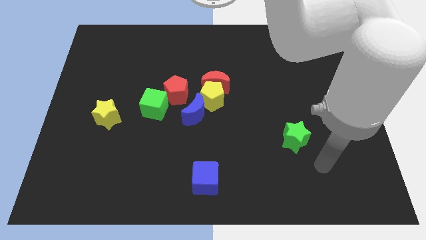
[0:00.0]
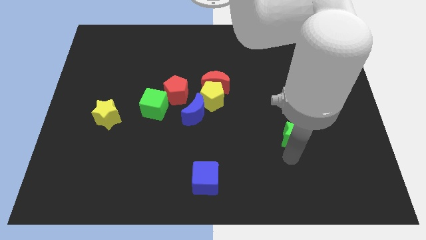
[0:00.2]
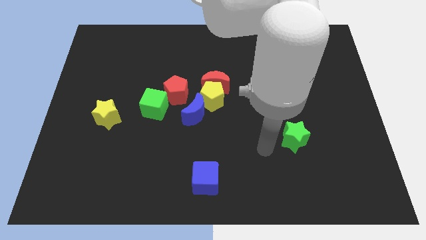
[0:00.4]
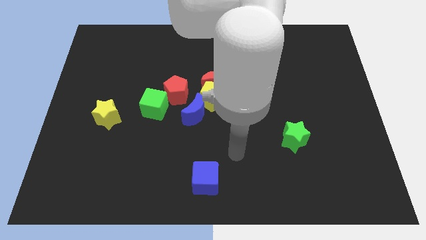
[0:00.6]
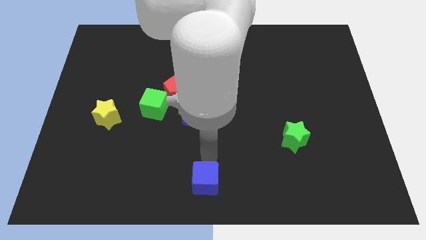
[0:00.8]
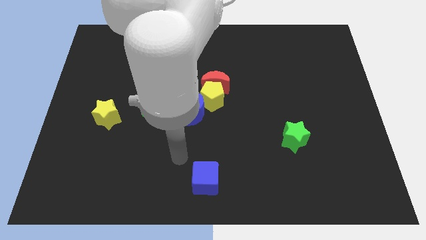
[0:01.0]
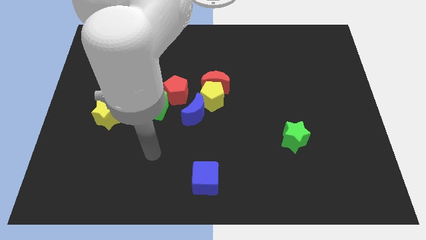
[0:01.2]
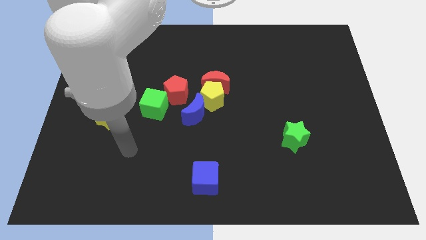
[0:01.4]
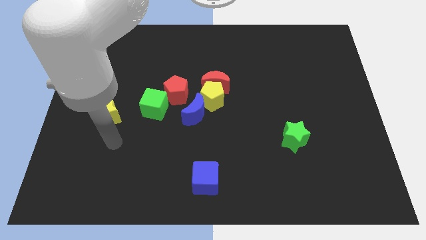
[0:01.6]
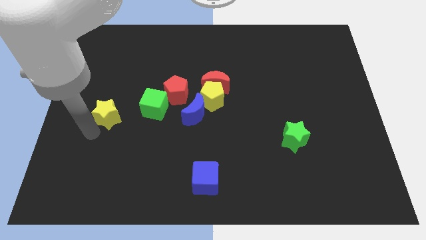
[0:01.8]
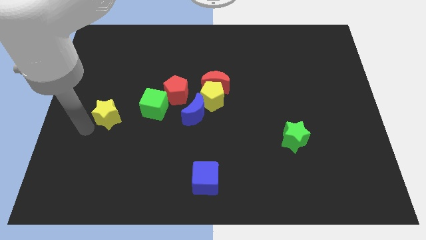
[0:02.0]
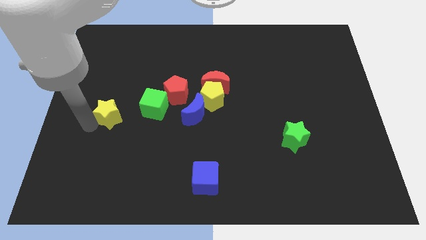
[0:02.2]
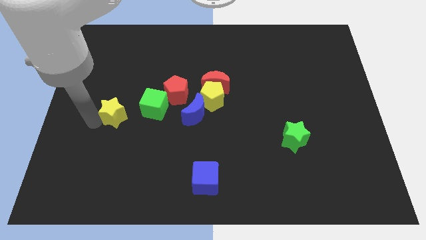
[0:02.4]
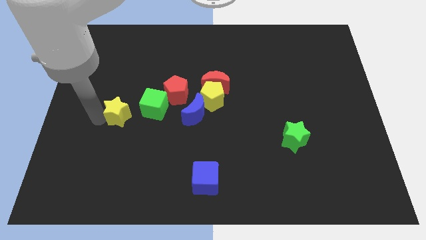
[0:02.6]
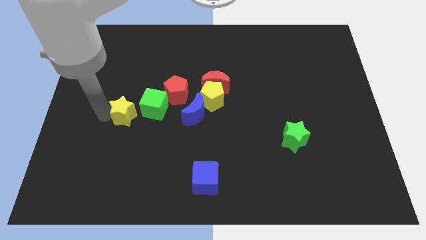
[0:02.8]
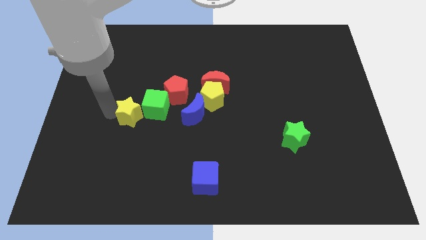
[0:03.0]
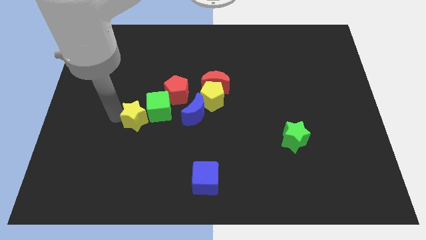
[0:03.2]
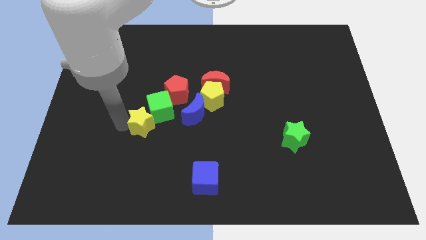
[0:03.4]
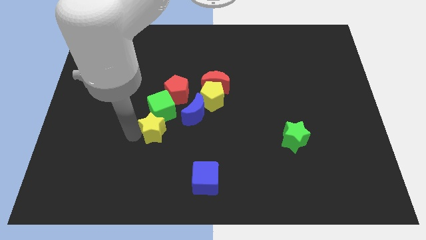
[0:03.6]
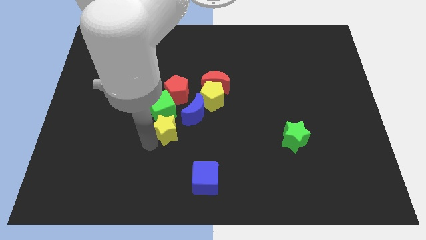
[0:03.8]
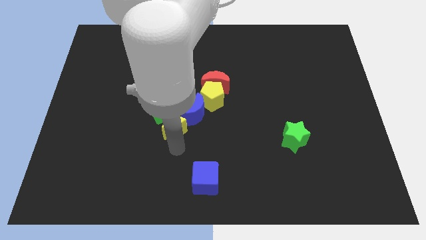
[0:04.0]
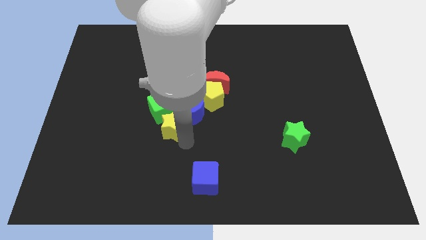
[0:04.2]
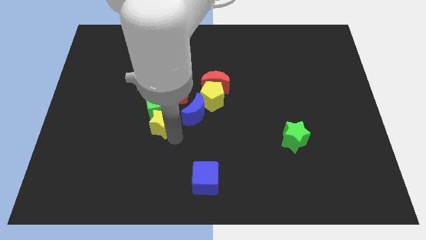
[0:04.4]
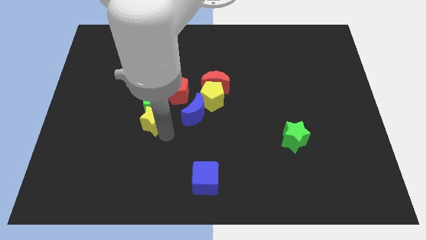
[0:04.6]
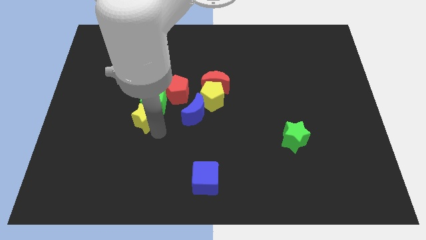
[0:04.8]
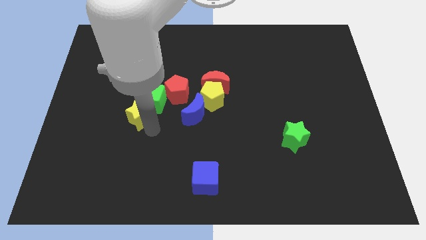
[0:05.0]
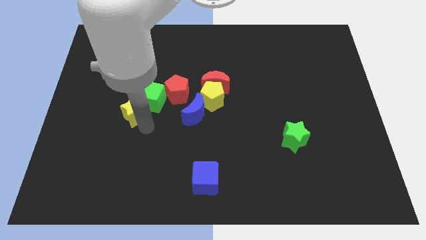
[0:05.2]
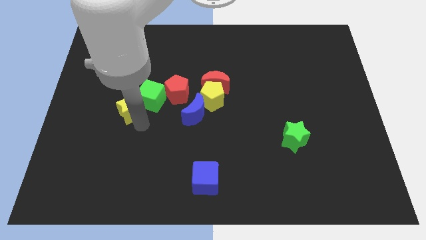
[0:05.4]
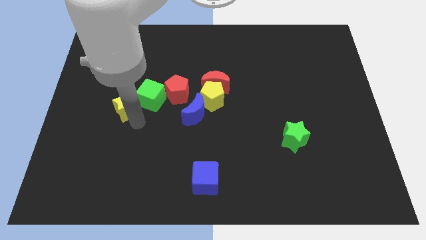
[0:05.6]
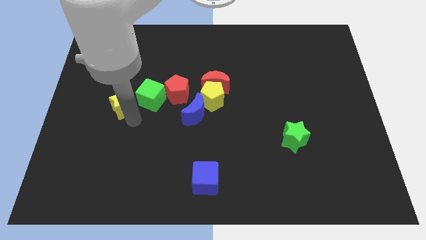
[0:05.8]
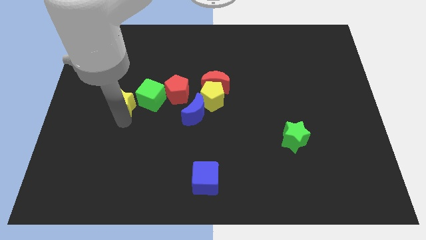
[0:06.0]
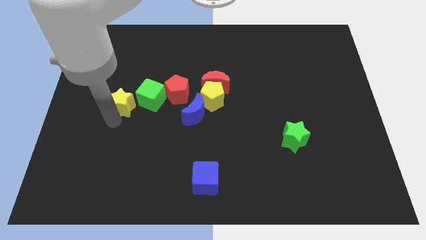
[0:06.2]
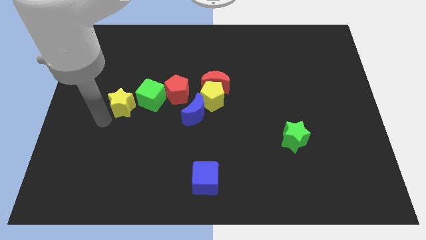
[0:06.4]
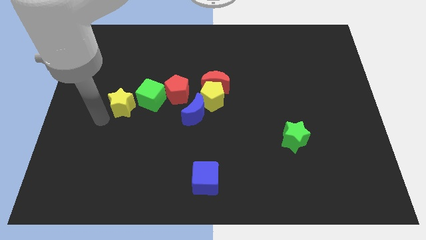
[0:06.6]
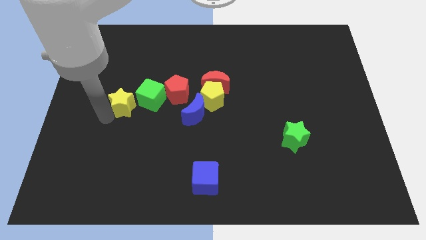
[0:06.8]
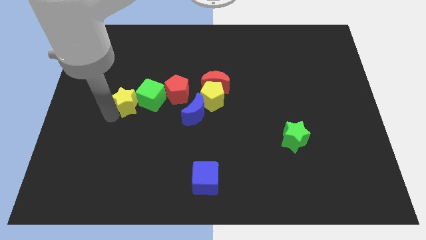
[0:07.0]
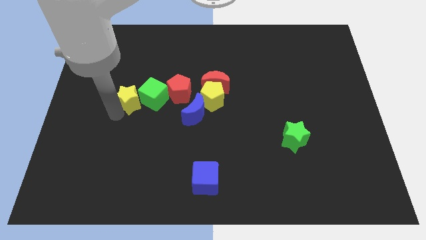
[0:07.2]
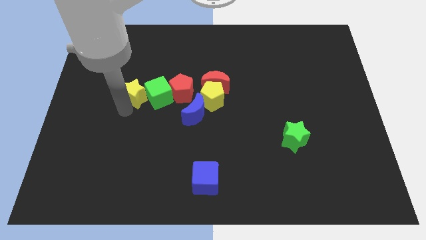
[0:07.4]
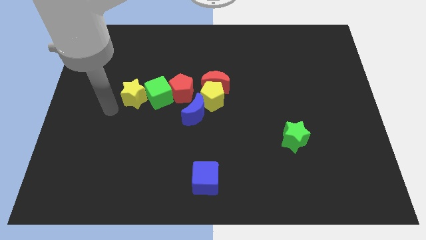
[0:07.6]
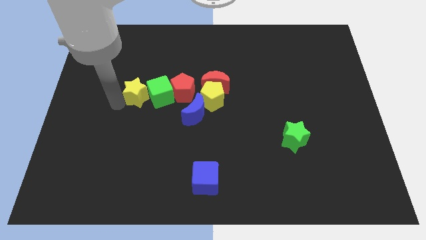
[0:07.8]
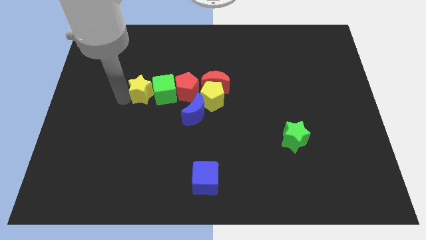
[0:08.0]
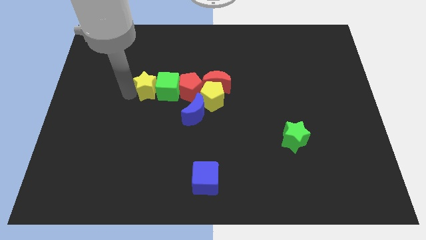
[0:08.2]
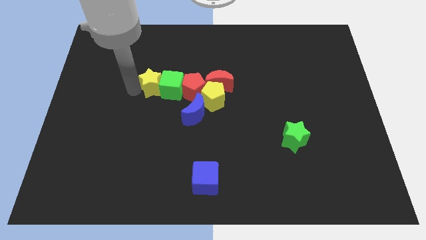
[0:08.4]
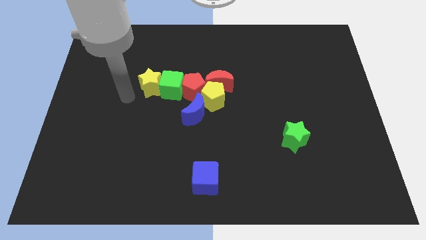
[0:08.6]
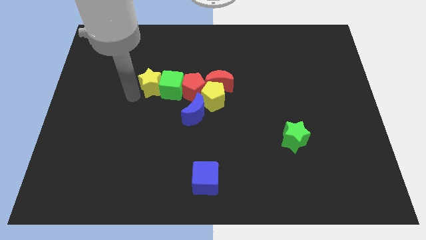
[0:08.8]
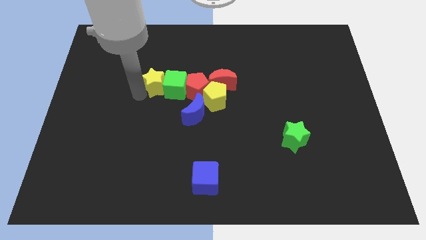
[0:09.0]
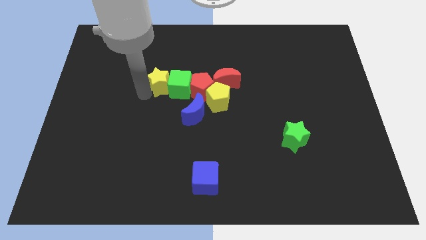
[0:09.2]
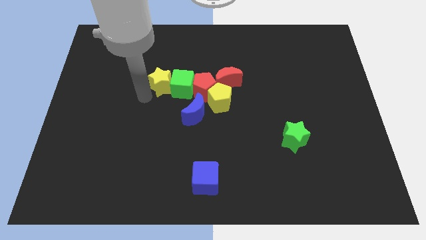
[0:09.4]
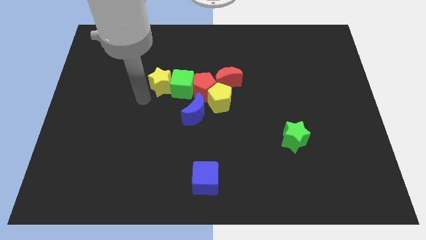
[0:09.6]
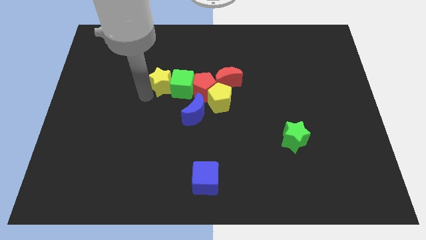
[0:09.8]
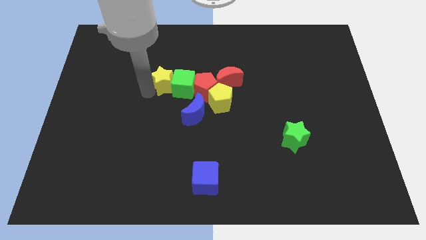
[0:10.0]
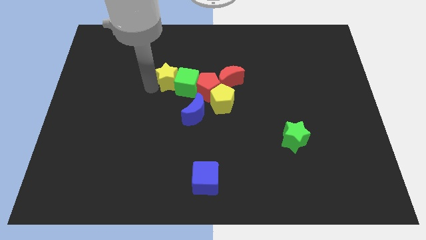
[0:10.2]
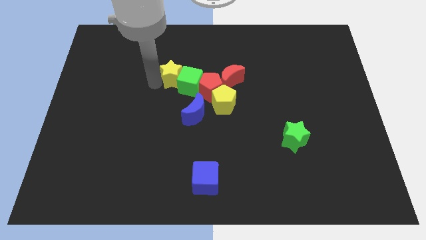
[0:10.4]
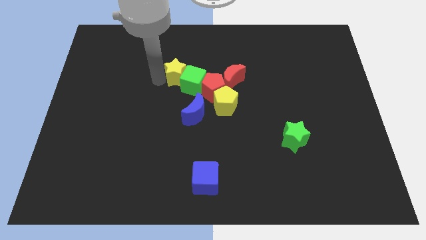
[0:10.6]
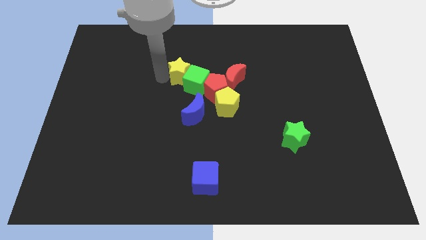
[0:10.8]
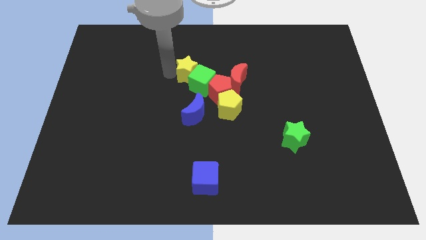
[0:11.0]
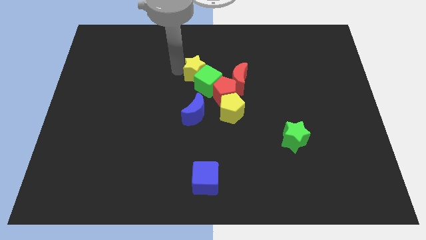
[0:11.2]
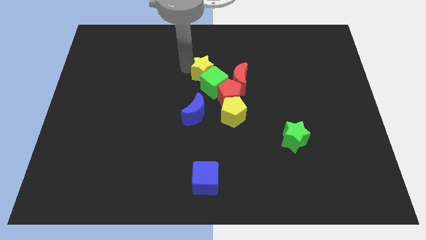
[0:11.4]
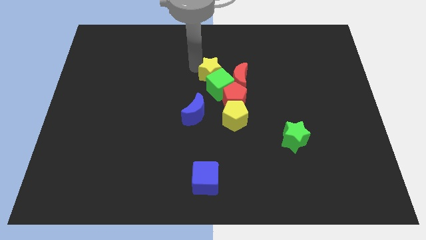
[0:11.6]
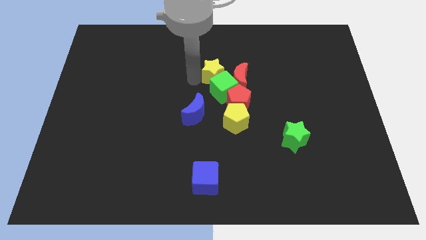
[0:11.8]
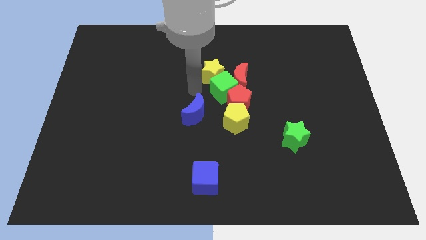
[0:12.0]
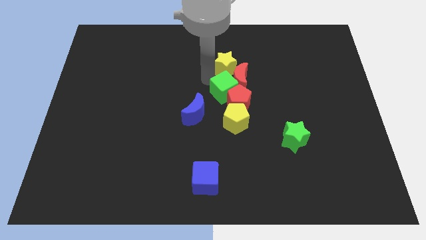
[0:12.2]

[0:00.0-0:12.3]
slide the yellow star to the top side of the red moon

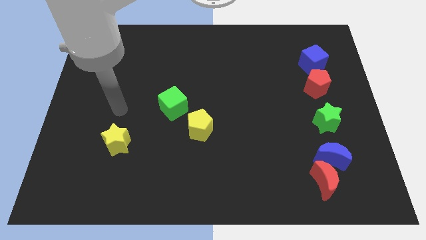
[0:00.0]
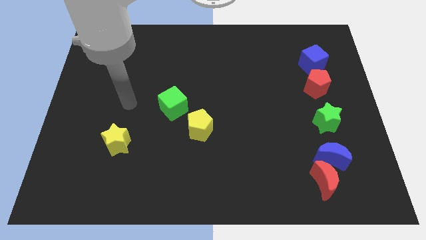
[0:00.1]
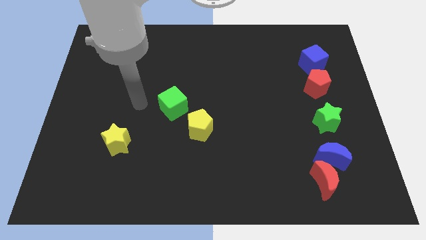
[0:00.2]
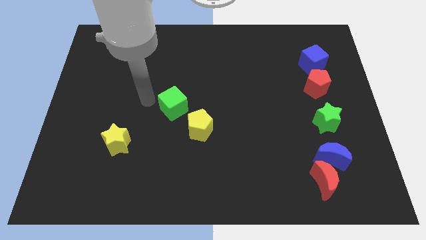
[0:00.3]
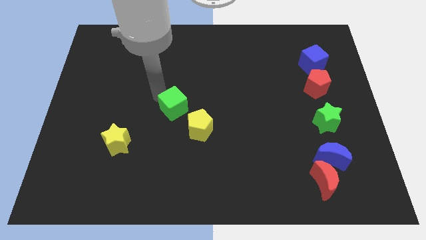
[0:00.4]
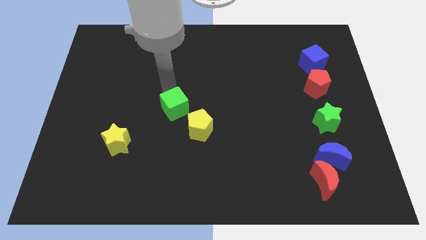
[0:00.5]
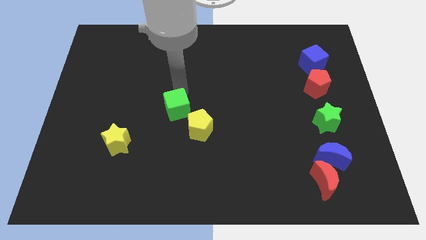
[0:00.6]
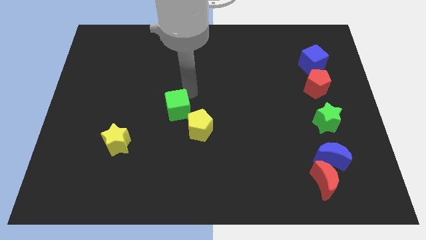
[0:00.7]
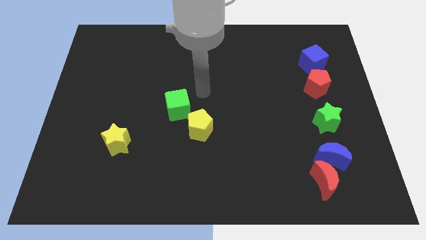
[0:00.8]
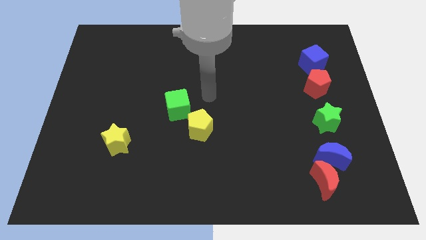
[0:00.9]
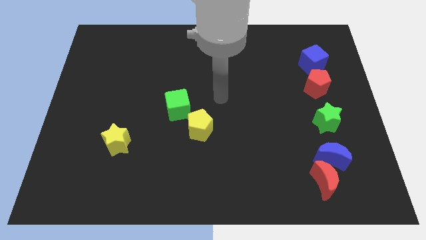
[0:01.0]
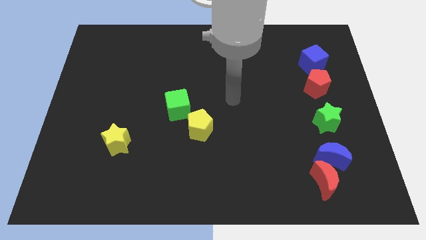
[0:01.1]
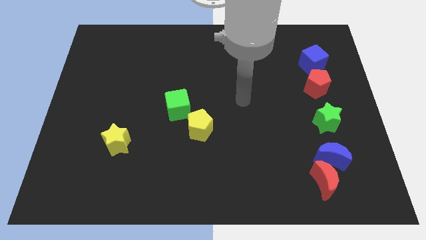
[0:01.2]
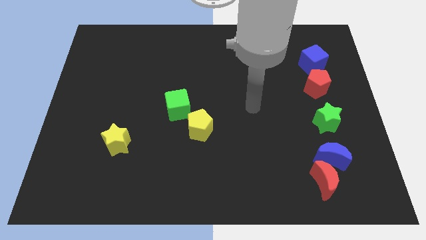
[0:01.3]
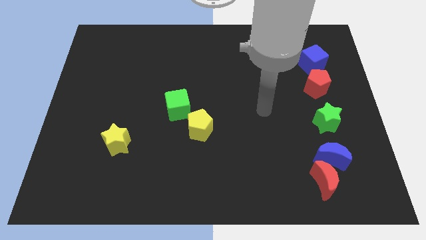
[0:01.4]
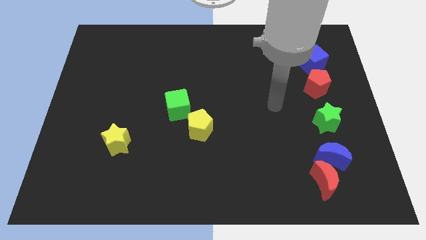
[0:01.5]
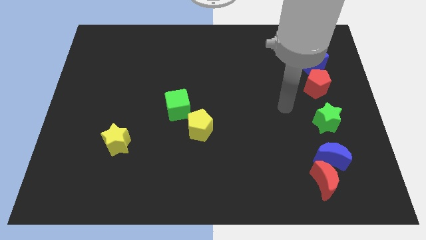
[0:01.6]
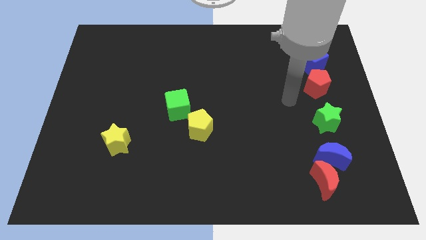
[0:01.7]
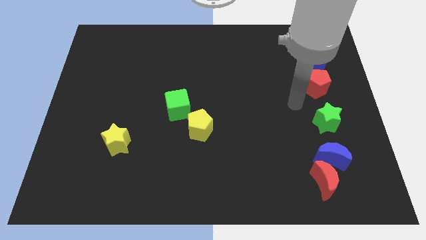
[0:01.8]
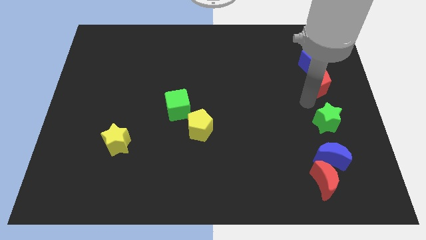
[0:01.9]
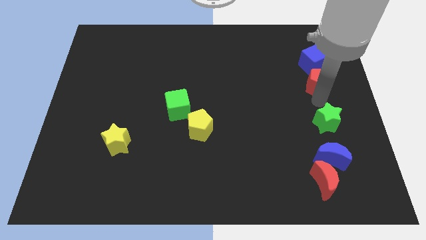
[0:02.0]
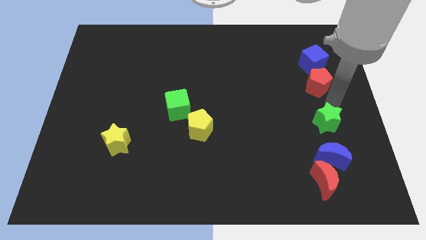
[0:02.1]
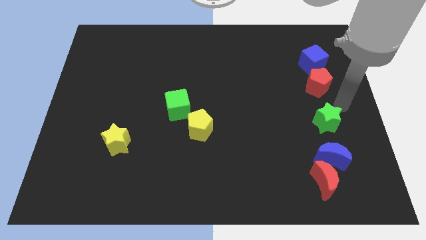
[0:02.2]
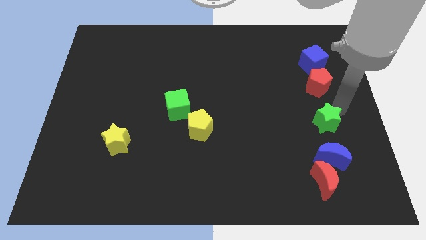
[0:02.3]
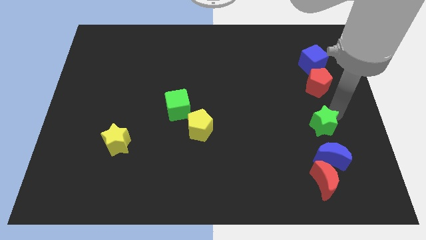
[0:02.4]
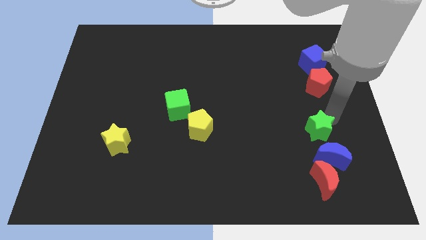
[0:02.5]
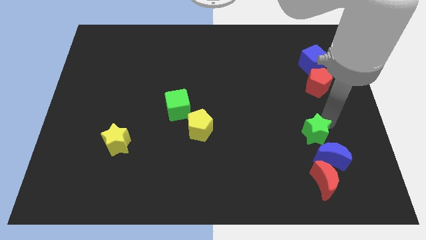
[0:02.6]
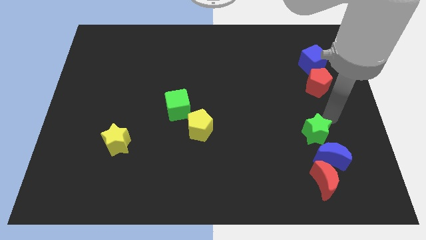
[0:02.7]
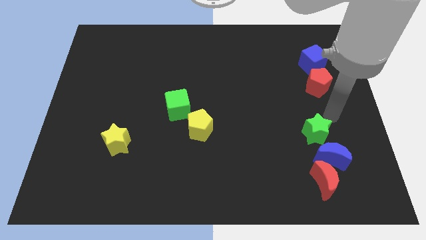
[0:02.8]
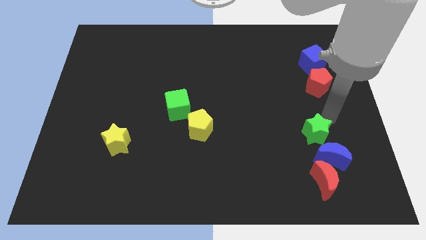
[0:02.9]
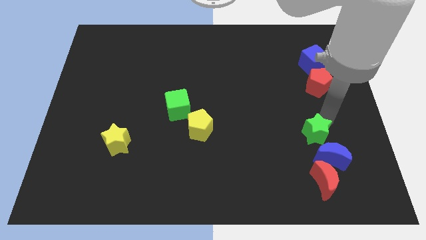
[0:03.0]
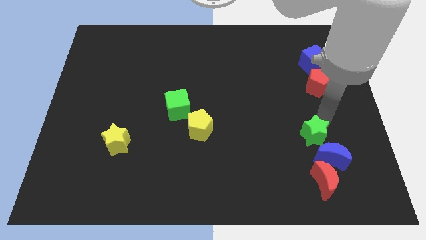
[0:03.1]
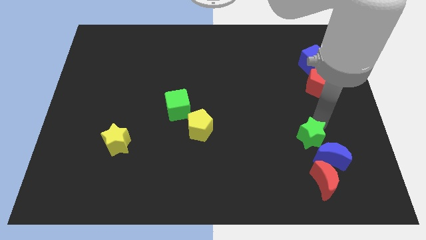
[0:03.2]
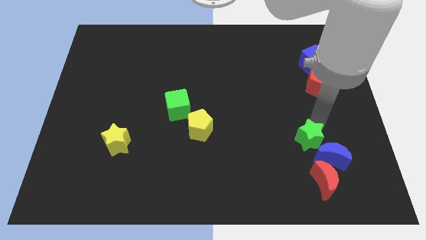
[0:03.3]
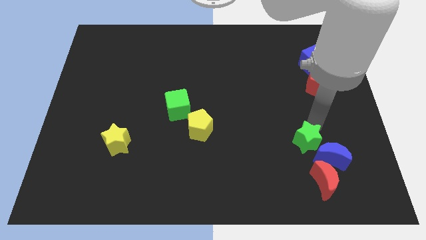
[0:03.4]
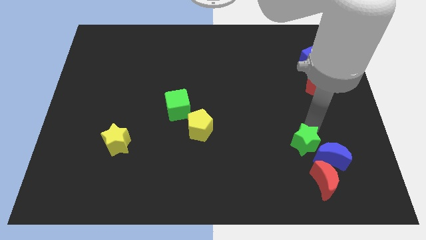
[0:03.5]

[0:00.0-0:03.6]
move the green star diagonally up and to the left of the red moon
